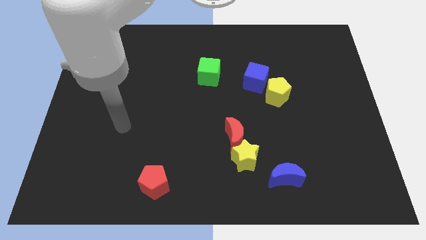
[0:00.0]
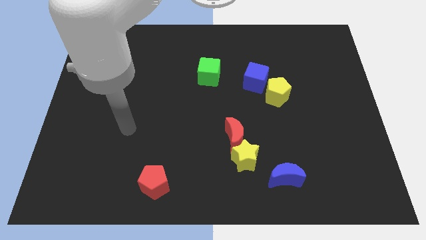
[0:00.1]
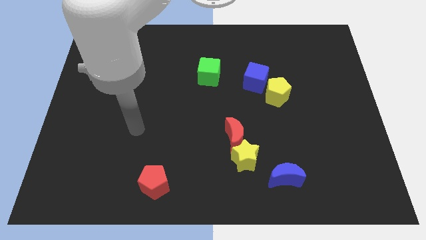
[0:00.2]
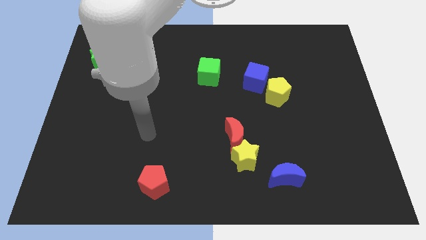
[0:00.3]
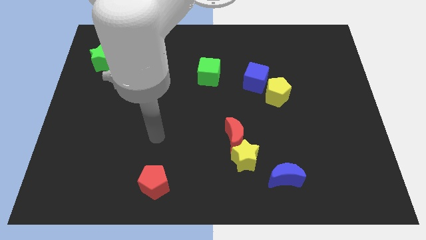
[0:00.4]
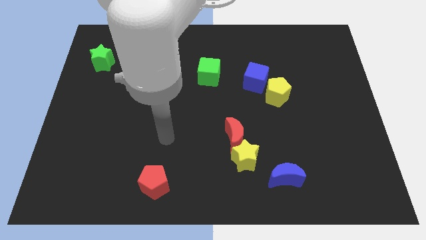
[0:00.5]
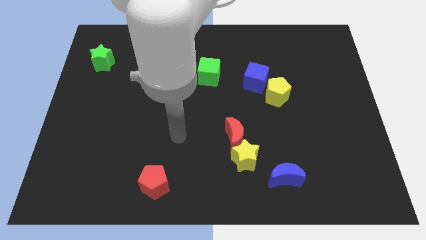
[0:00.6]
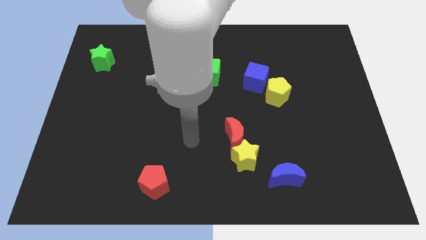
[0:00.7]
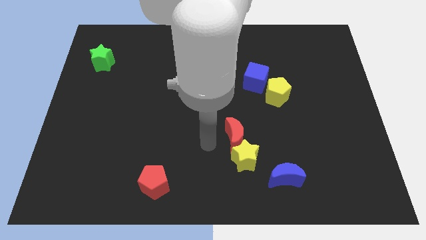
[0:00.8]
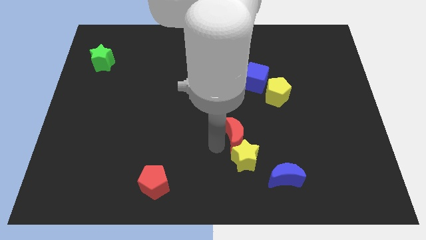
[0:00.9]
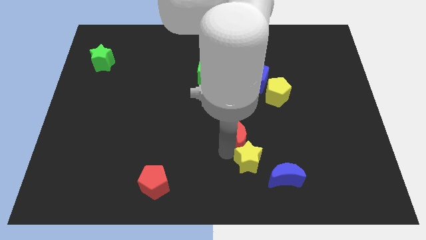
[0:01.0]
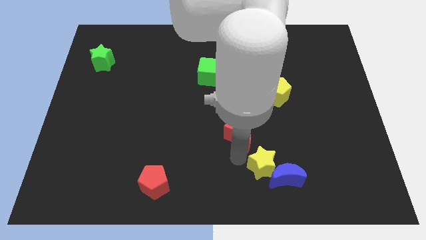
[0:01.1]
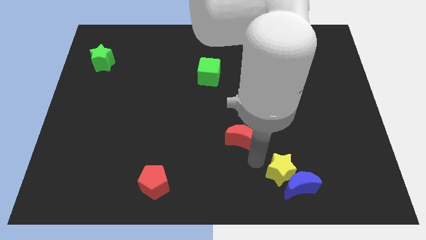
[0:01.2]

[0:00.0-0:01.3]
move the red moon away from the yellow star

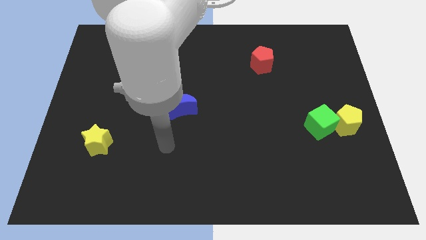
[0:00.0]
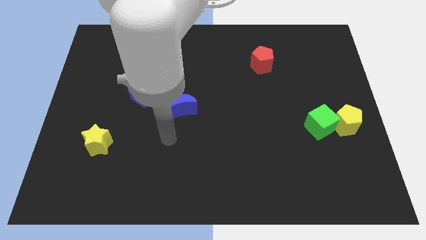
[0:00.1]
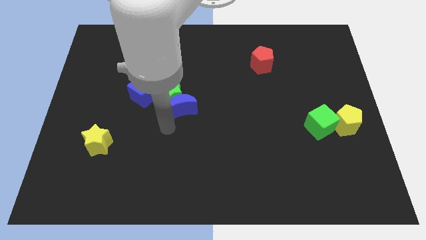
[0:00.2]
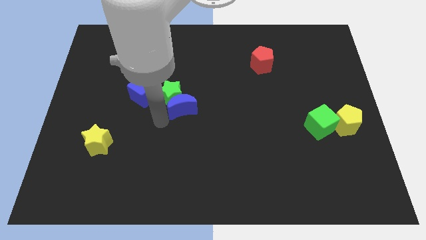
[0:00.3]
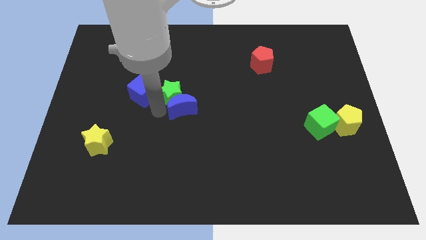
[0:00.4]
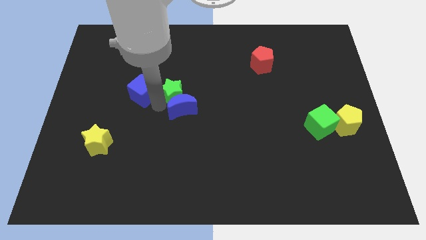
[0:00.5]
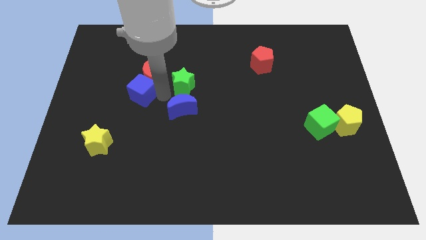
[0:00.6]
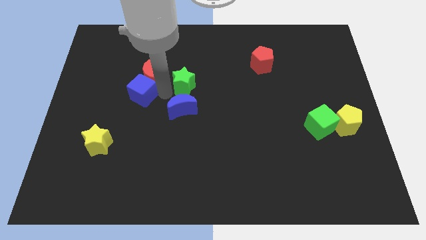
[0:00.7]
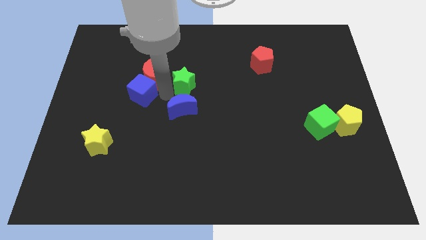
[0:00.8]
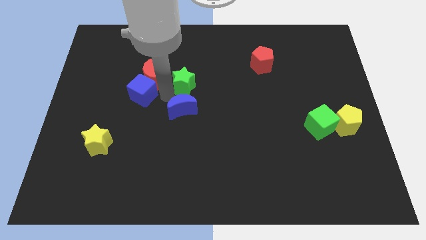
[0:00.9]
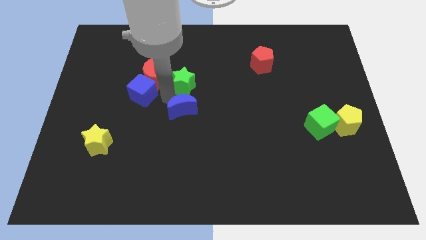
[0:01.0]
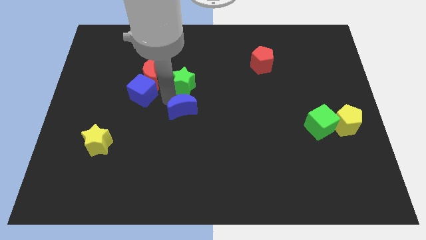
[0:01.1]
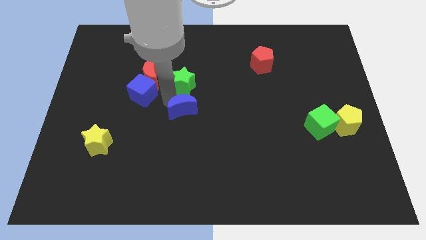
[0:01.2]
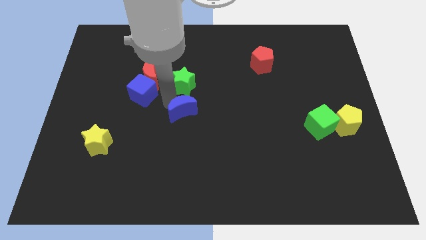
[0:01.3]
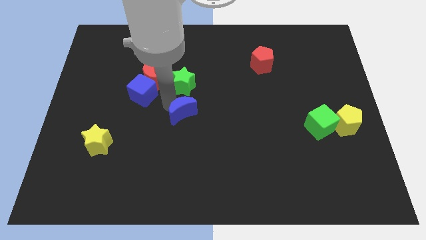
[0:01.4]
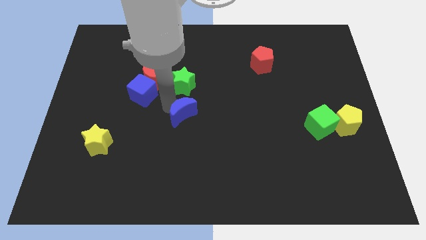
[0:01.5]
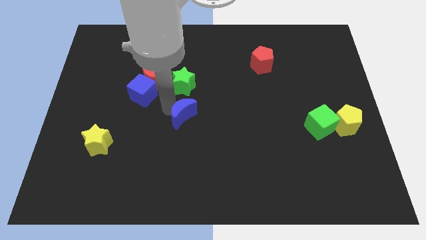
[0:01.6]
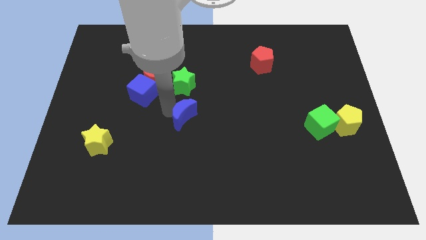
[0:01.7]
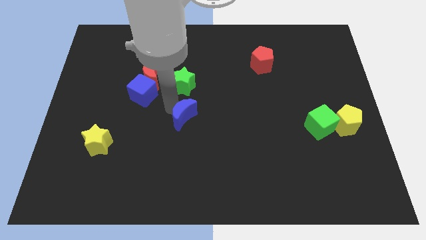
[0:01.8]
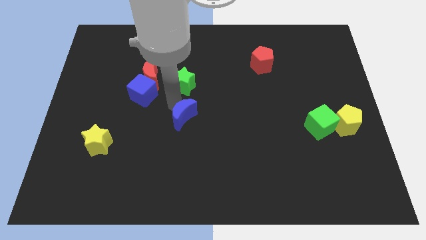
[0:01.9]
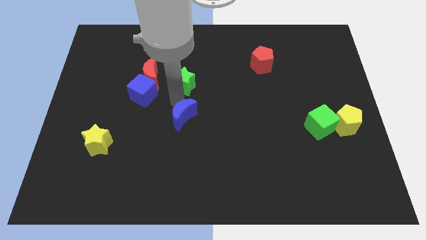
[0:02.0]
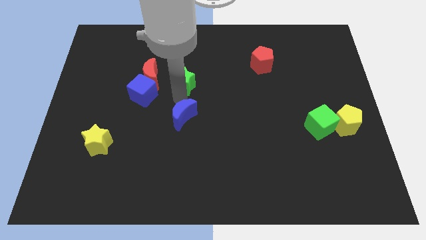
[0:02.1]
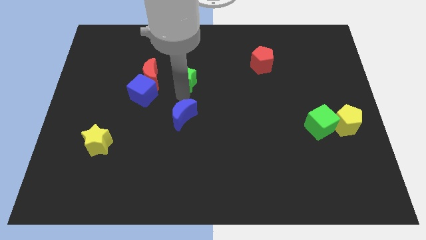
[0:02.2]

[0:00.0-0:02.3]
pull the blue moon apart from the green star

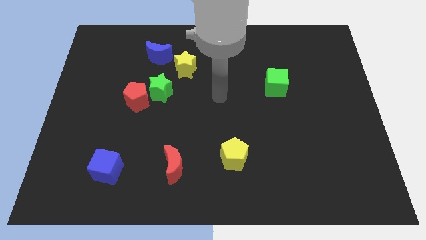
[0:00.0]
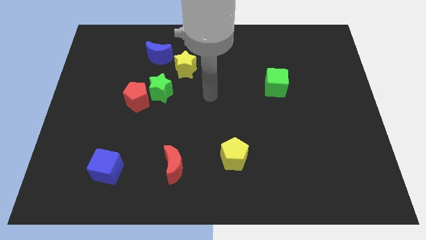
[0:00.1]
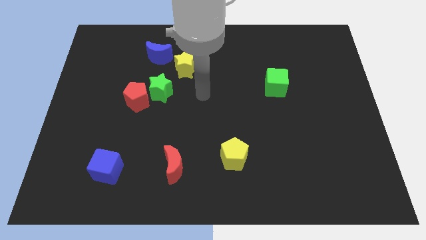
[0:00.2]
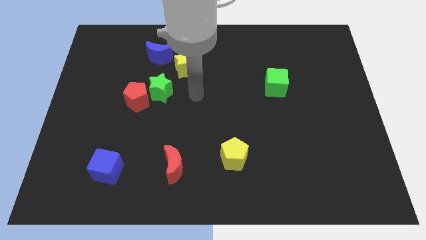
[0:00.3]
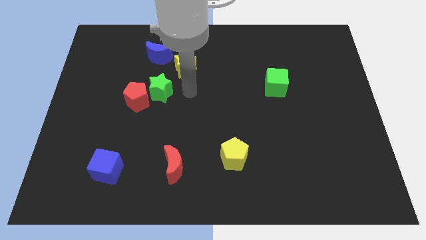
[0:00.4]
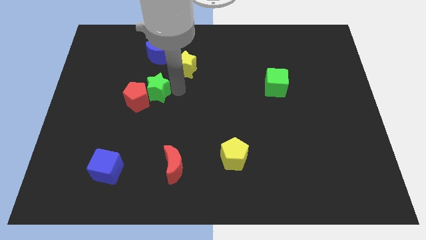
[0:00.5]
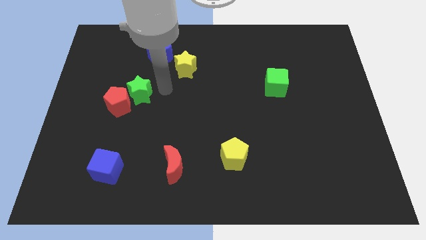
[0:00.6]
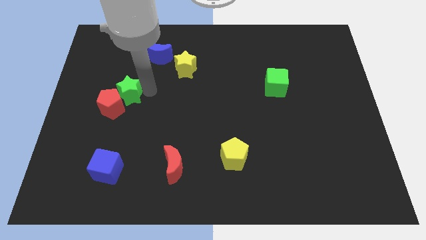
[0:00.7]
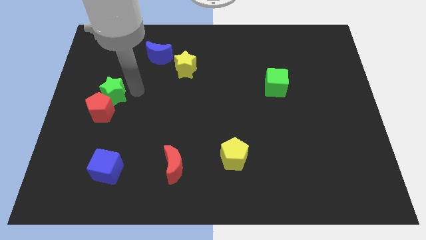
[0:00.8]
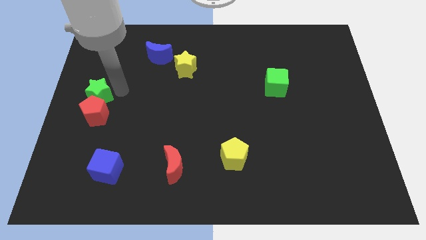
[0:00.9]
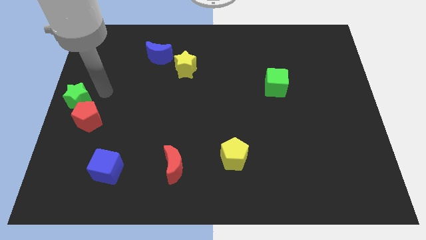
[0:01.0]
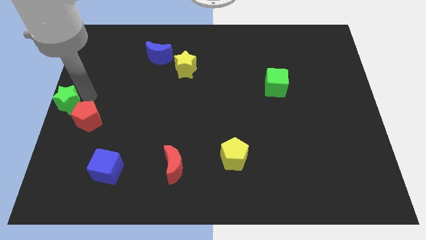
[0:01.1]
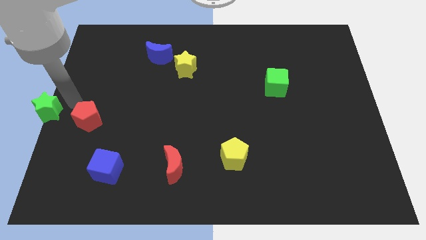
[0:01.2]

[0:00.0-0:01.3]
move the red pentagon away from the green star

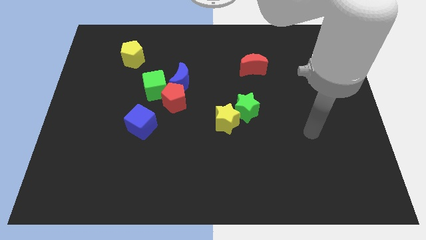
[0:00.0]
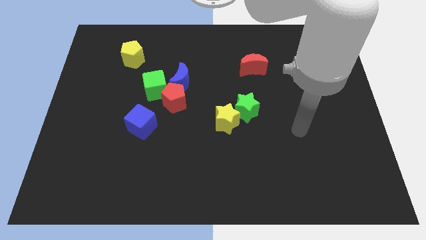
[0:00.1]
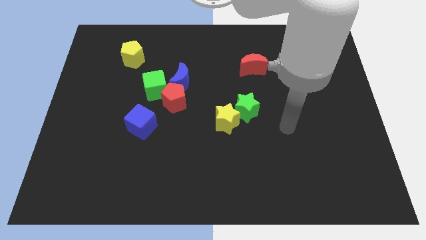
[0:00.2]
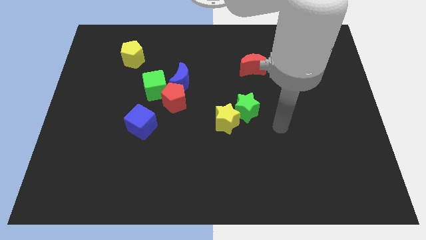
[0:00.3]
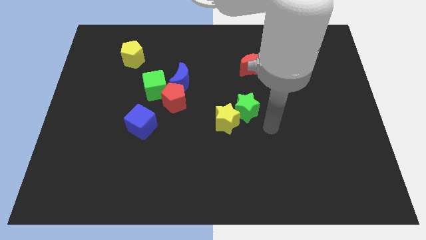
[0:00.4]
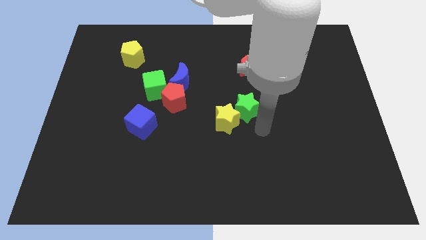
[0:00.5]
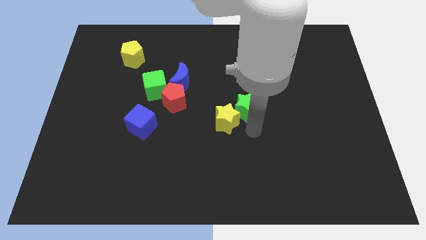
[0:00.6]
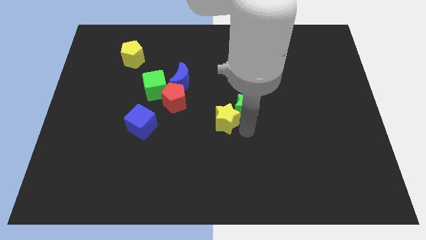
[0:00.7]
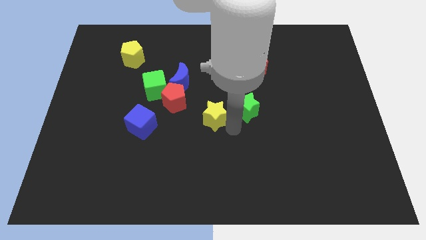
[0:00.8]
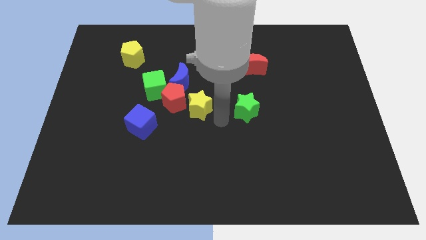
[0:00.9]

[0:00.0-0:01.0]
move the green star away from the yellow star

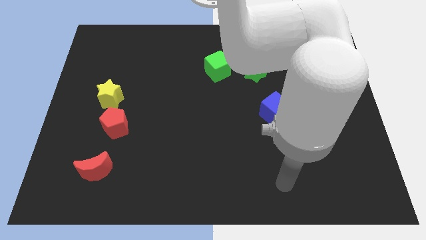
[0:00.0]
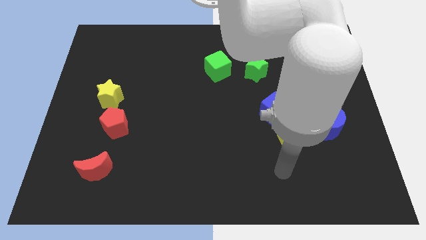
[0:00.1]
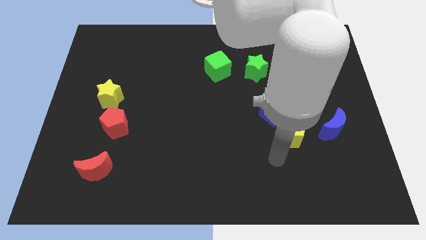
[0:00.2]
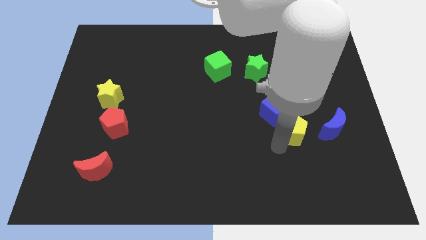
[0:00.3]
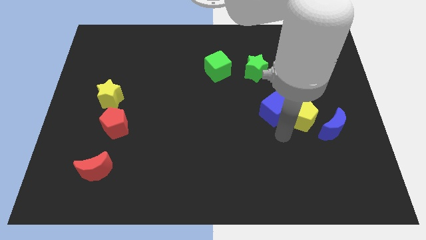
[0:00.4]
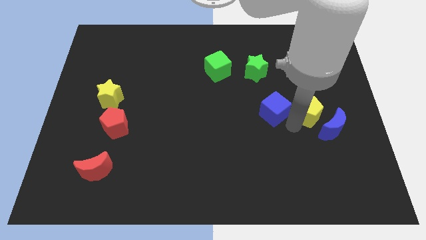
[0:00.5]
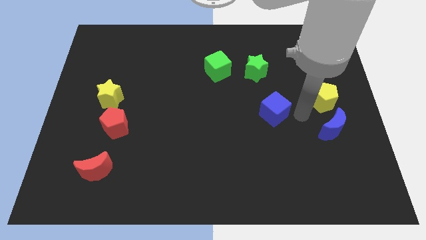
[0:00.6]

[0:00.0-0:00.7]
separate the blue cube from the yellow pentagon

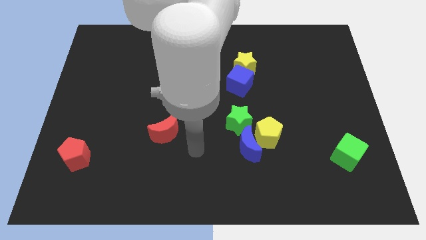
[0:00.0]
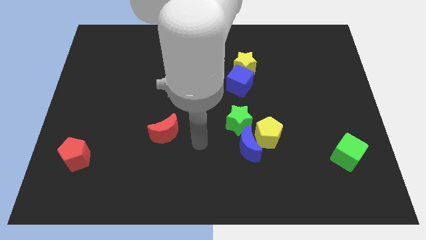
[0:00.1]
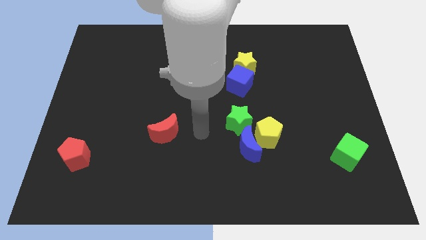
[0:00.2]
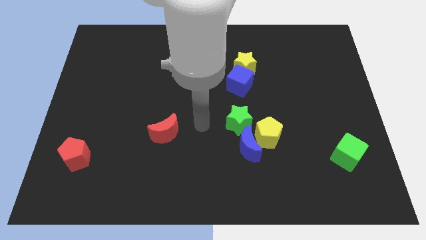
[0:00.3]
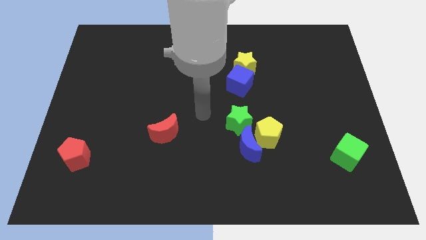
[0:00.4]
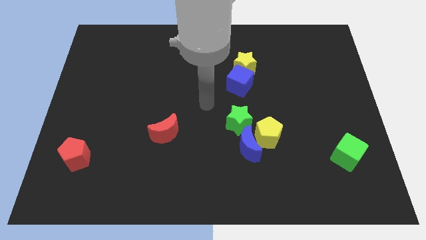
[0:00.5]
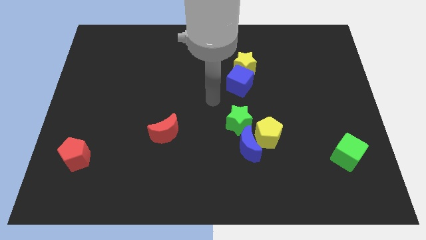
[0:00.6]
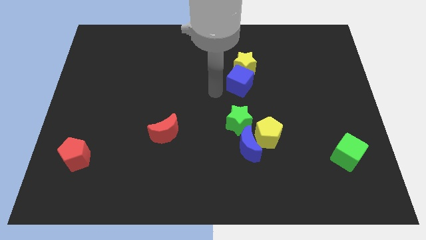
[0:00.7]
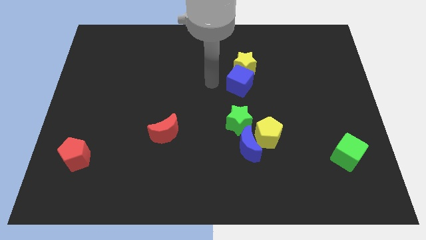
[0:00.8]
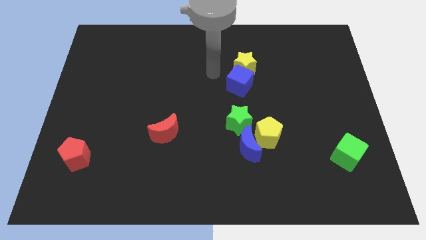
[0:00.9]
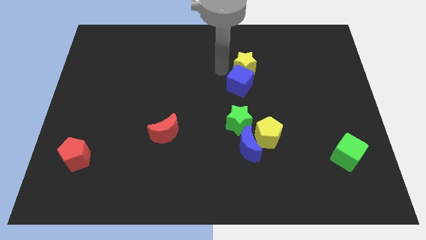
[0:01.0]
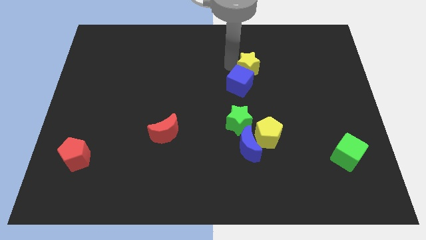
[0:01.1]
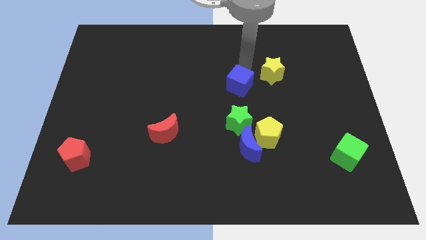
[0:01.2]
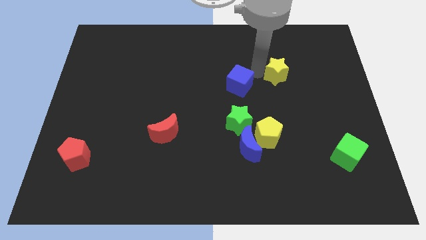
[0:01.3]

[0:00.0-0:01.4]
pull the blue cube apart from the yellow star

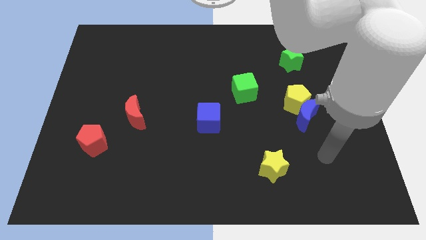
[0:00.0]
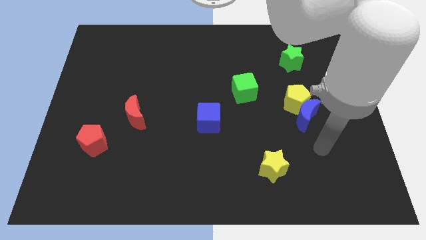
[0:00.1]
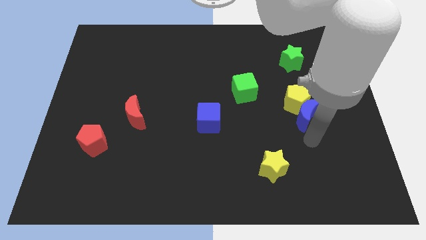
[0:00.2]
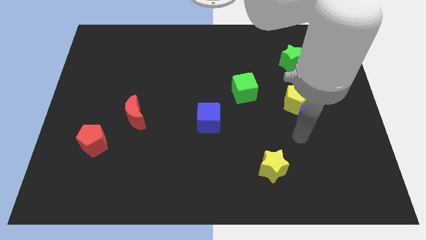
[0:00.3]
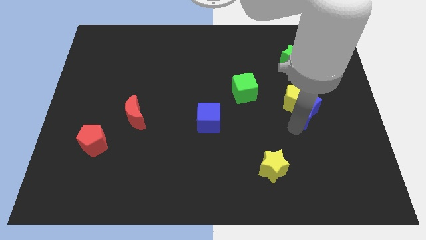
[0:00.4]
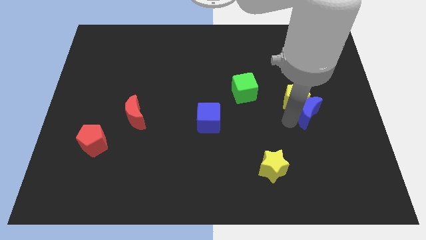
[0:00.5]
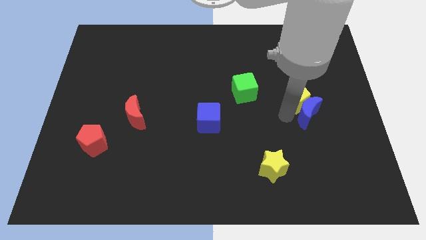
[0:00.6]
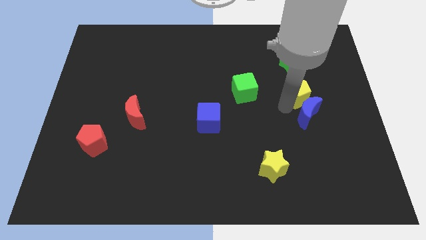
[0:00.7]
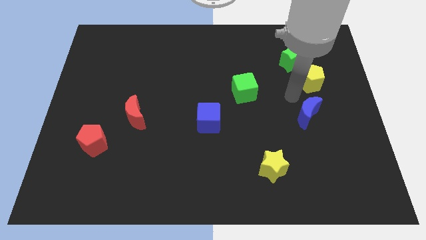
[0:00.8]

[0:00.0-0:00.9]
separate the blue moon from the yellow pentagon

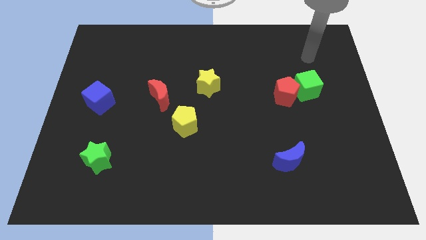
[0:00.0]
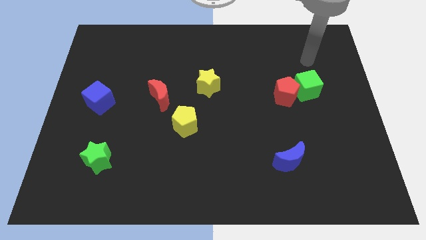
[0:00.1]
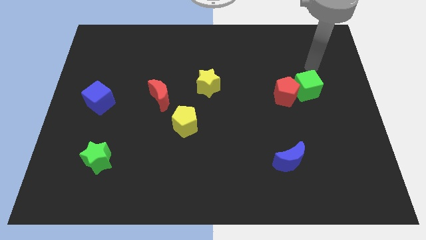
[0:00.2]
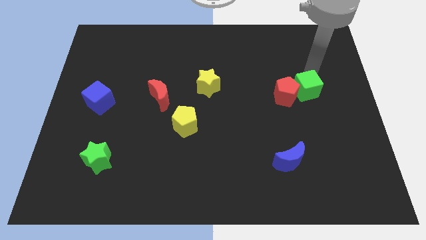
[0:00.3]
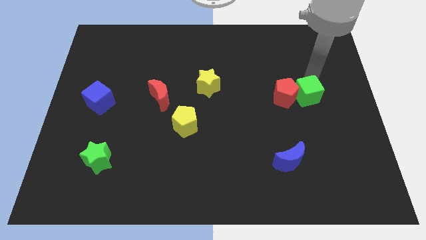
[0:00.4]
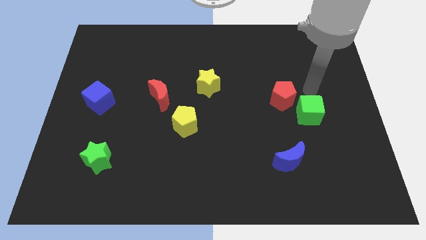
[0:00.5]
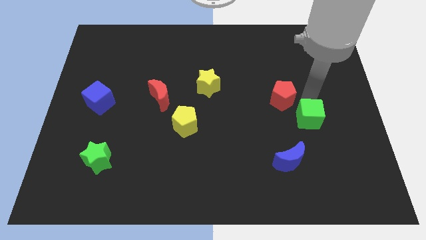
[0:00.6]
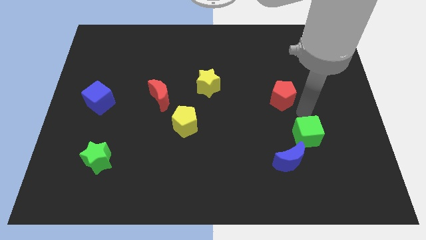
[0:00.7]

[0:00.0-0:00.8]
pull the red pentagon apart from the green cube
